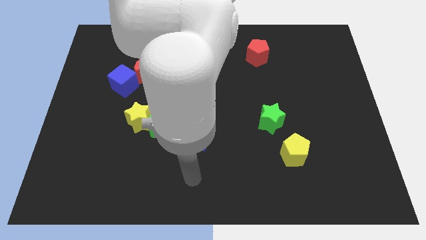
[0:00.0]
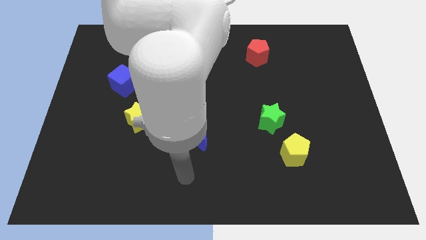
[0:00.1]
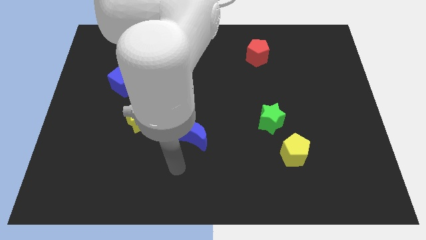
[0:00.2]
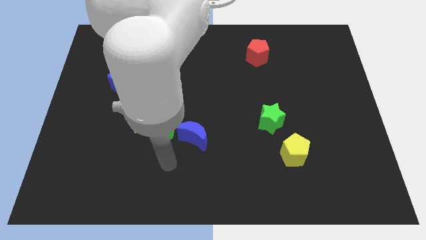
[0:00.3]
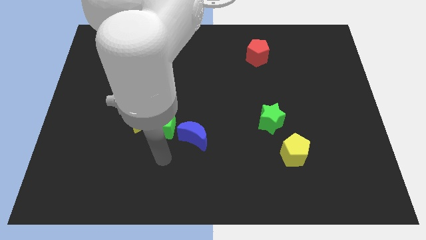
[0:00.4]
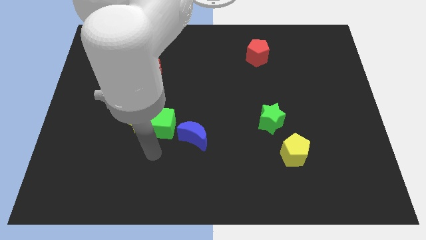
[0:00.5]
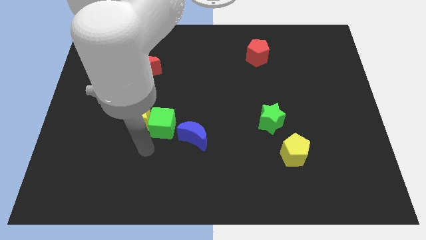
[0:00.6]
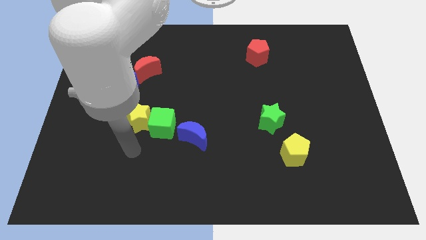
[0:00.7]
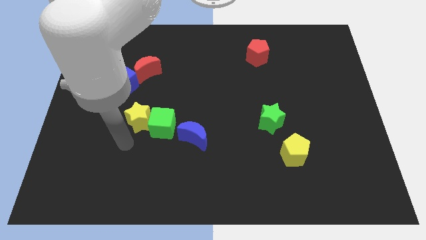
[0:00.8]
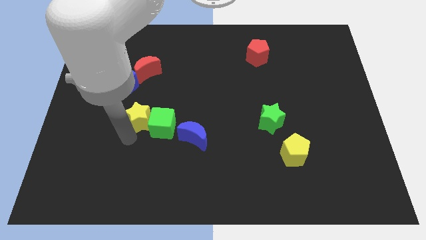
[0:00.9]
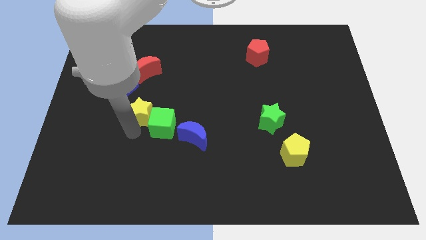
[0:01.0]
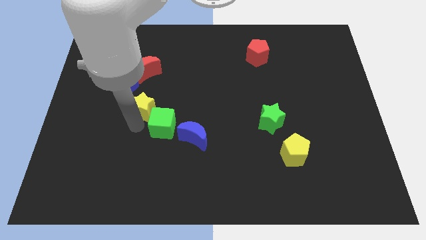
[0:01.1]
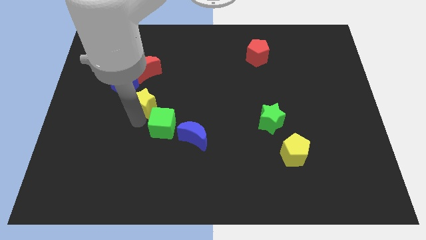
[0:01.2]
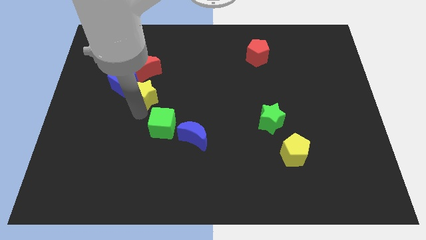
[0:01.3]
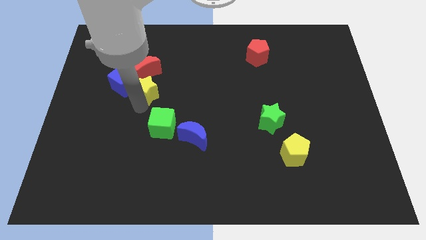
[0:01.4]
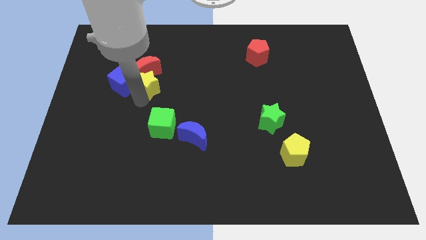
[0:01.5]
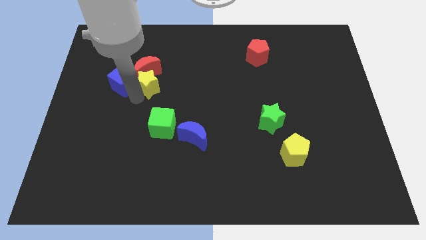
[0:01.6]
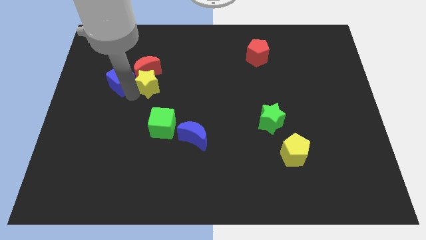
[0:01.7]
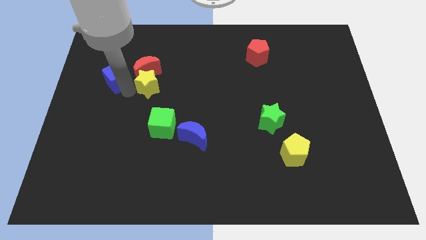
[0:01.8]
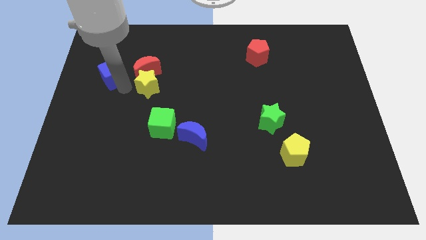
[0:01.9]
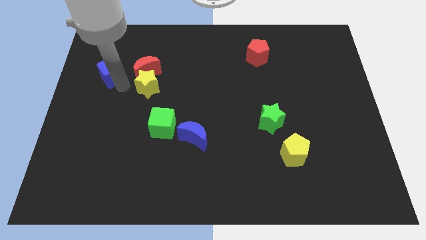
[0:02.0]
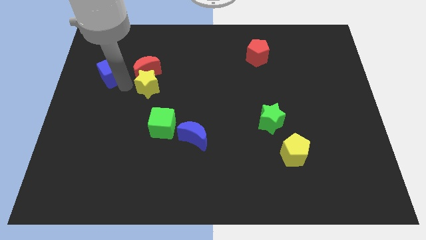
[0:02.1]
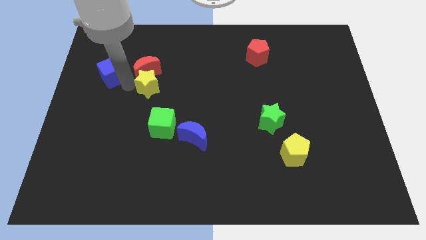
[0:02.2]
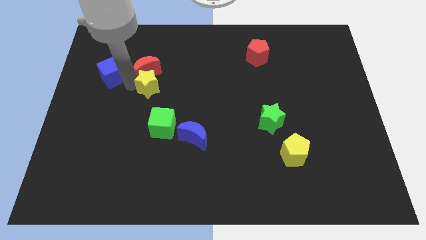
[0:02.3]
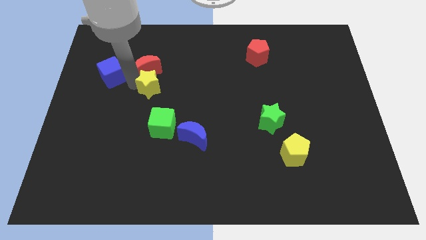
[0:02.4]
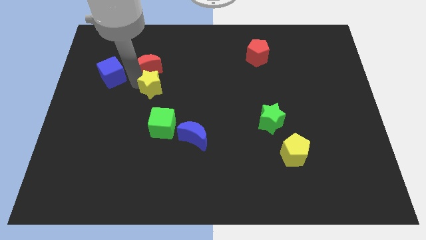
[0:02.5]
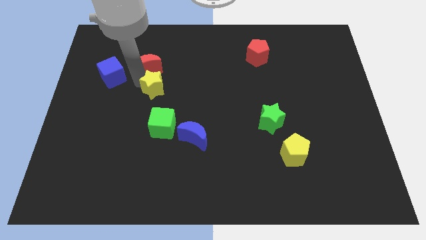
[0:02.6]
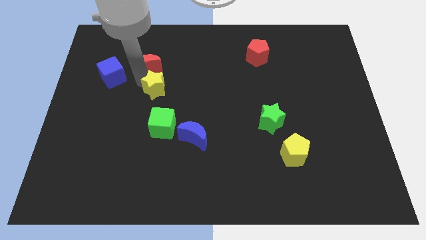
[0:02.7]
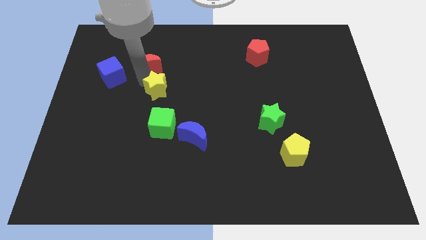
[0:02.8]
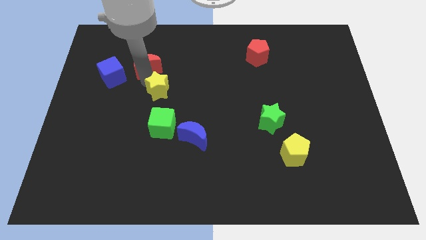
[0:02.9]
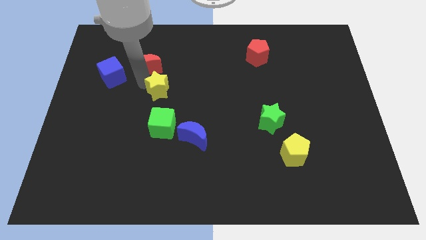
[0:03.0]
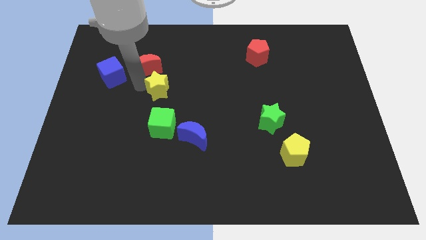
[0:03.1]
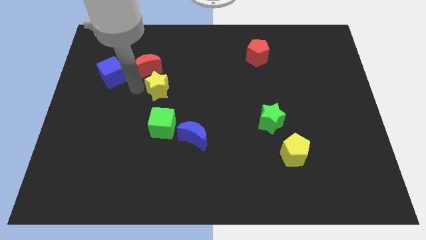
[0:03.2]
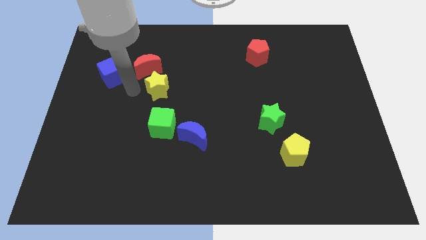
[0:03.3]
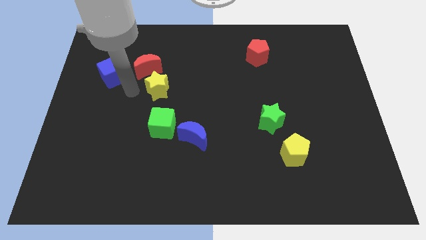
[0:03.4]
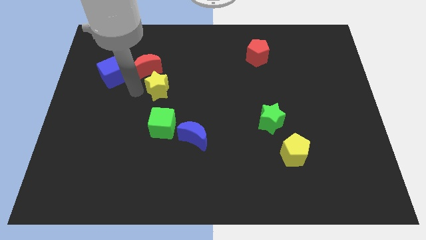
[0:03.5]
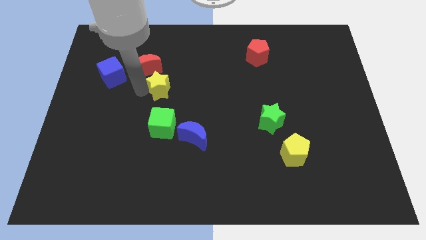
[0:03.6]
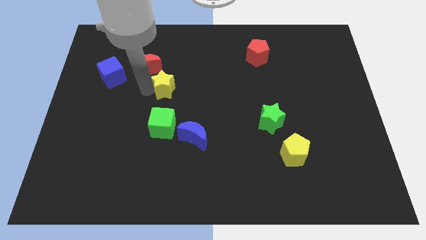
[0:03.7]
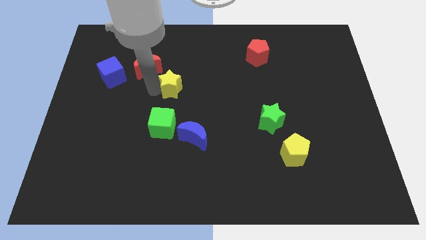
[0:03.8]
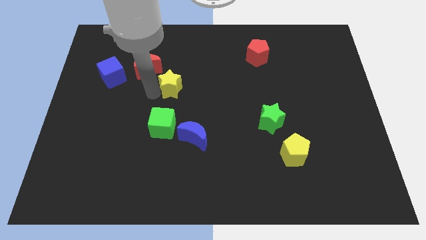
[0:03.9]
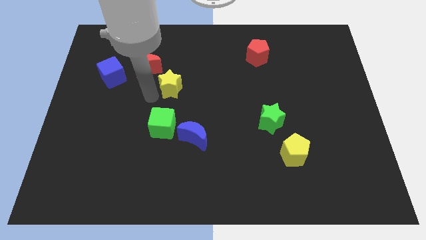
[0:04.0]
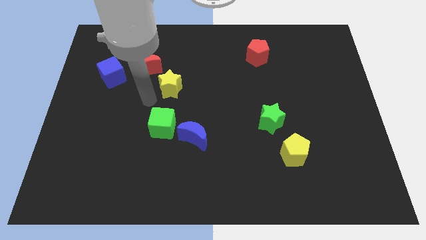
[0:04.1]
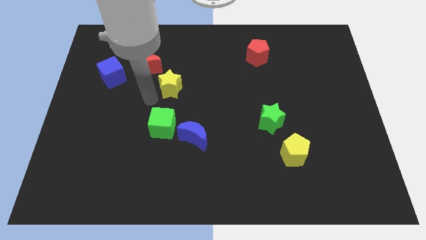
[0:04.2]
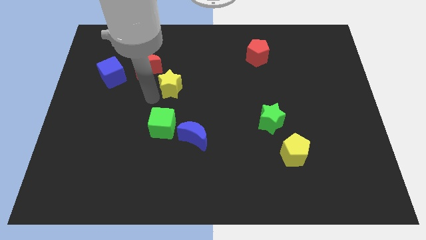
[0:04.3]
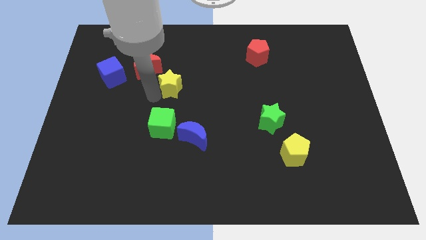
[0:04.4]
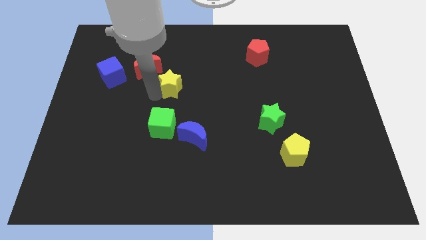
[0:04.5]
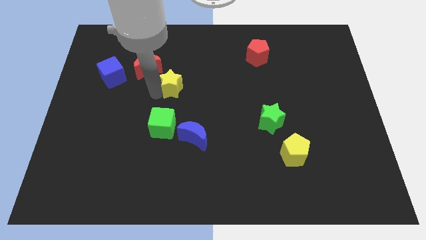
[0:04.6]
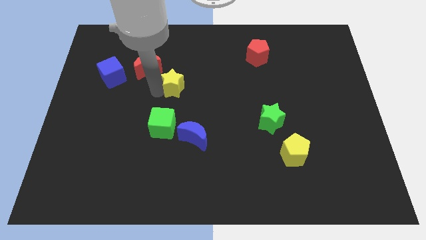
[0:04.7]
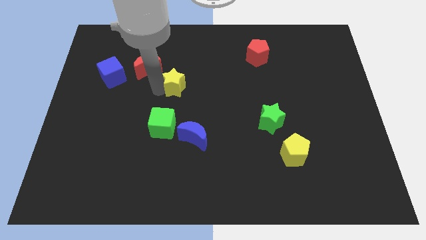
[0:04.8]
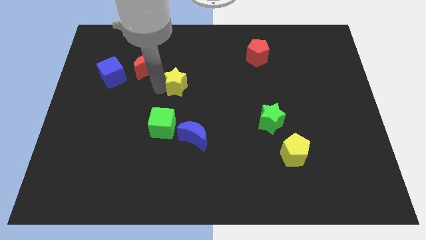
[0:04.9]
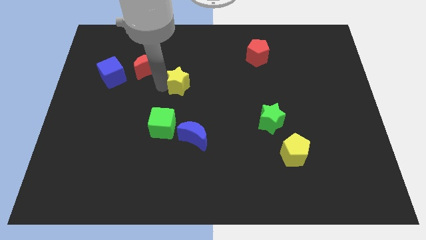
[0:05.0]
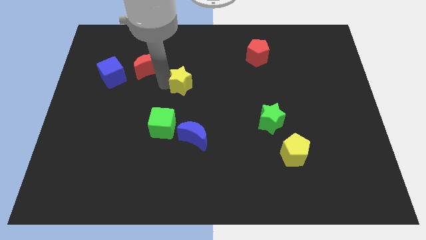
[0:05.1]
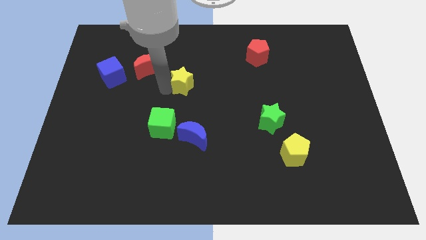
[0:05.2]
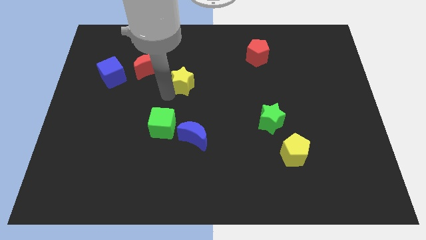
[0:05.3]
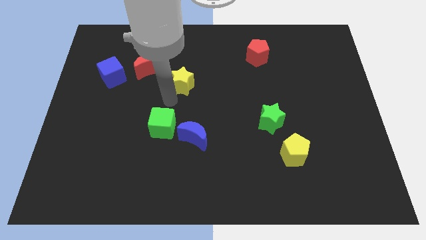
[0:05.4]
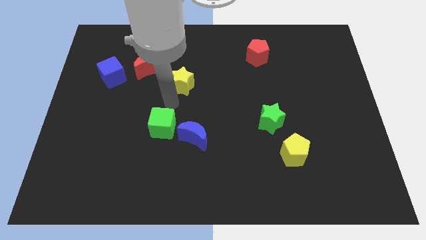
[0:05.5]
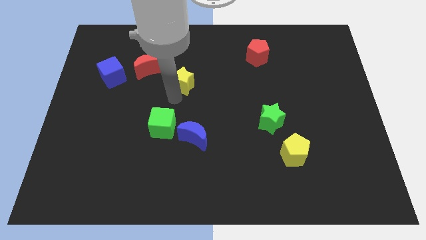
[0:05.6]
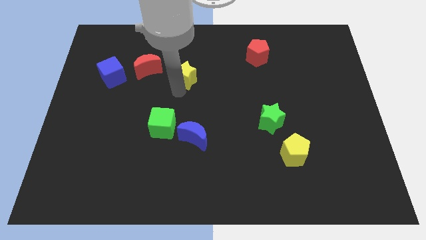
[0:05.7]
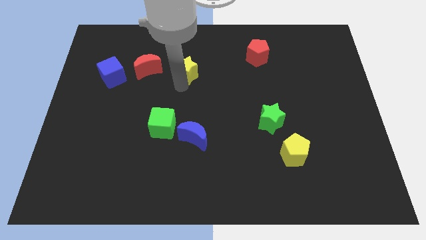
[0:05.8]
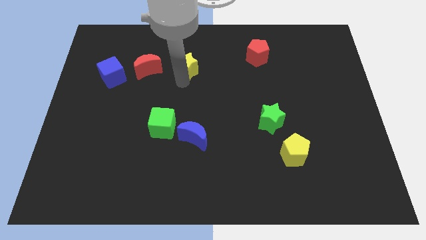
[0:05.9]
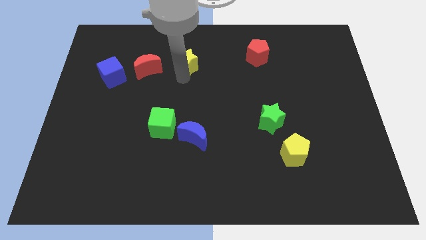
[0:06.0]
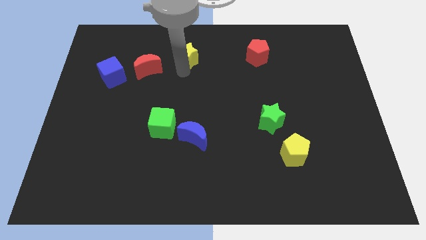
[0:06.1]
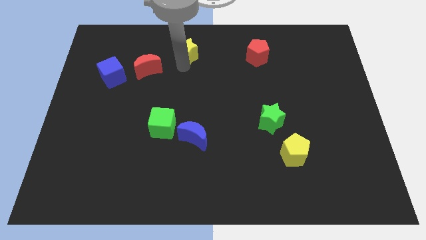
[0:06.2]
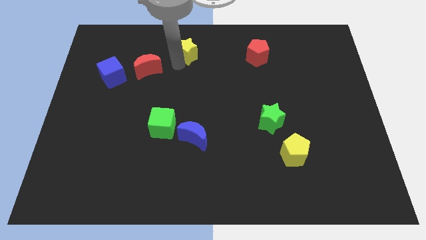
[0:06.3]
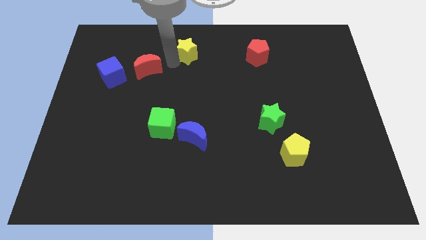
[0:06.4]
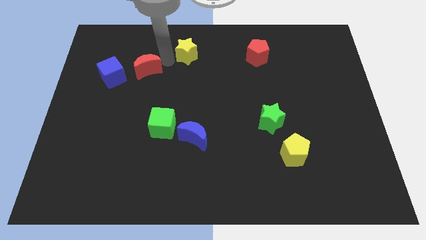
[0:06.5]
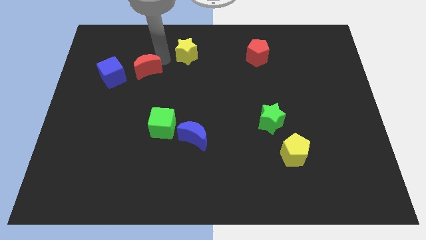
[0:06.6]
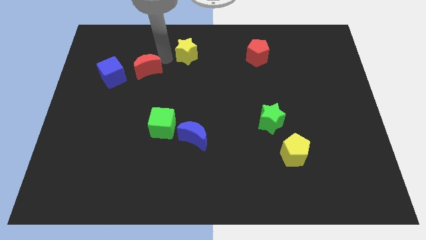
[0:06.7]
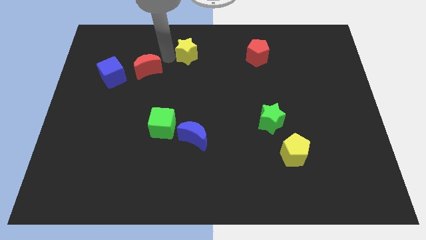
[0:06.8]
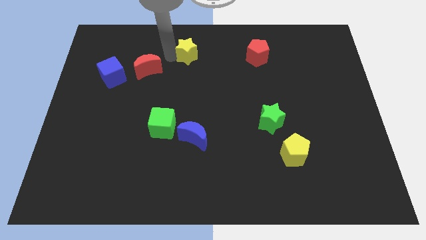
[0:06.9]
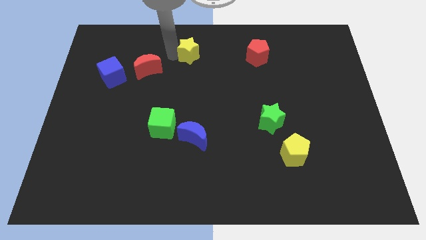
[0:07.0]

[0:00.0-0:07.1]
put the yellow star to the top
